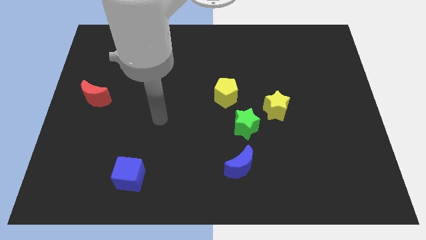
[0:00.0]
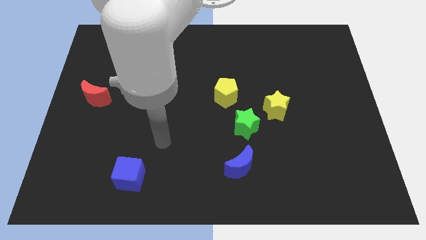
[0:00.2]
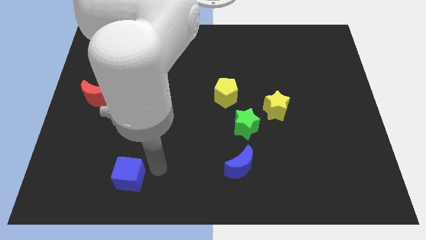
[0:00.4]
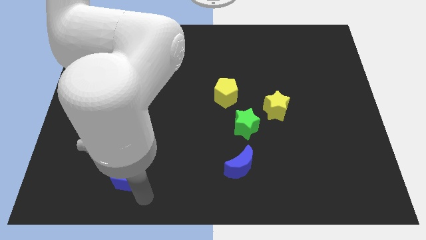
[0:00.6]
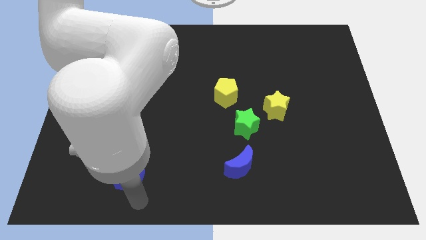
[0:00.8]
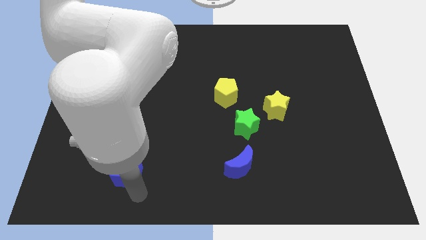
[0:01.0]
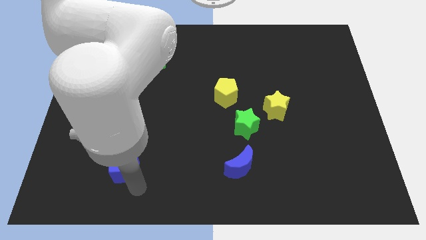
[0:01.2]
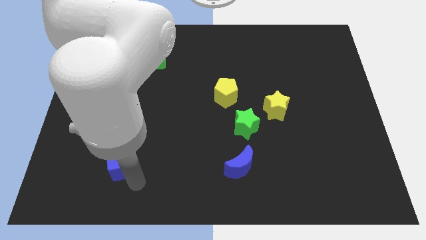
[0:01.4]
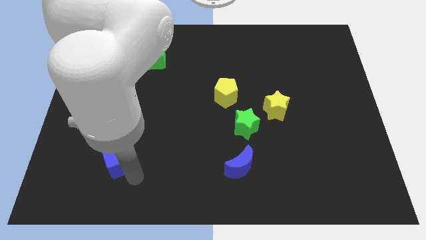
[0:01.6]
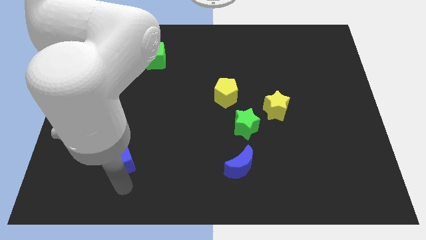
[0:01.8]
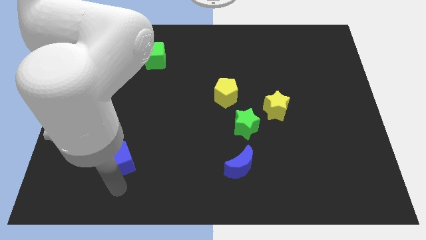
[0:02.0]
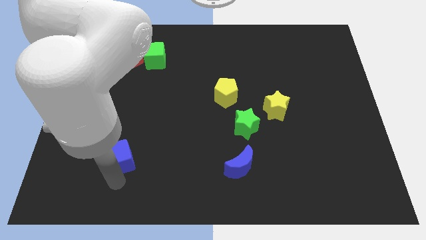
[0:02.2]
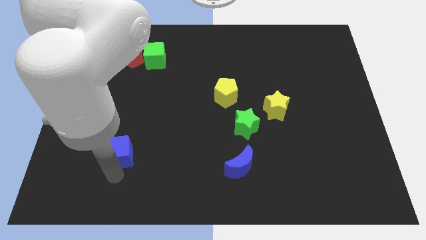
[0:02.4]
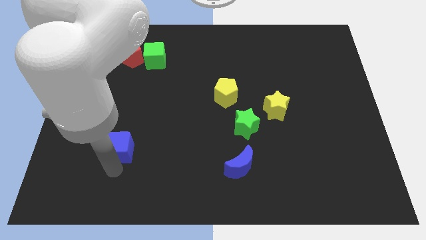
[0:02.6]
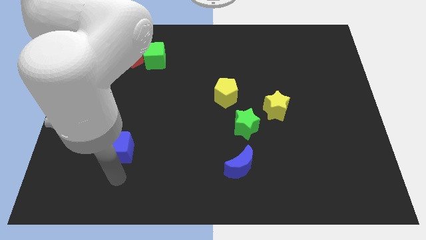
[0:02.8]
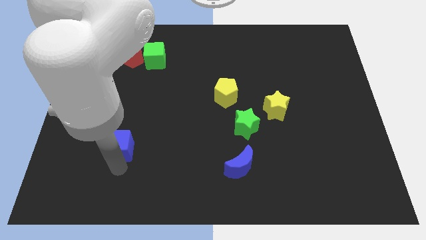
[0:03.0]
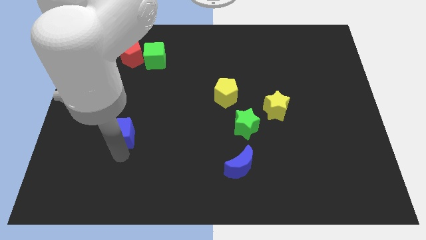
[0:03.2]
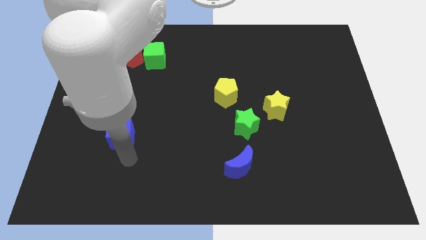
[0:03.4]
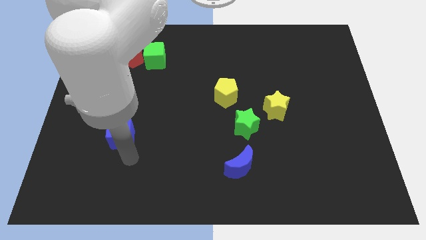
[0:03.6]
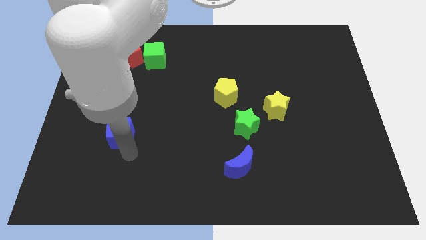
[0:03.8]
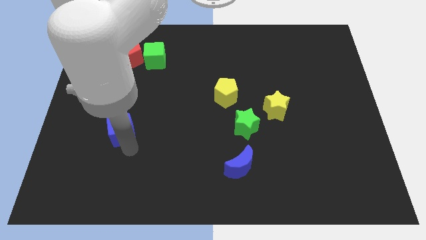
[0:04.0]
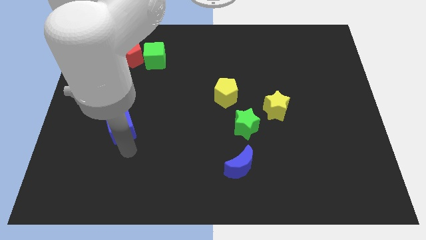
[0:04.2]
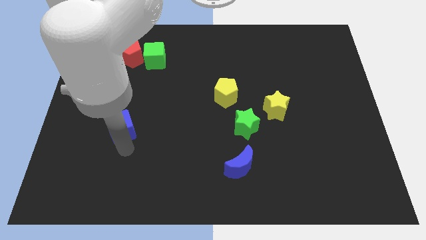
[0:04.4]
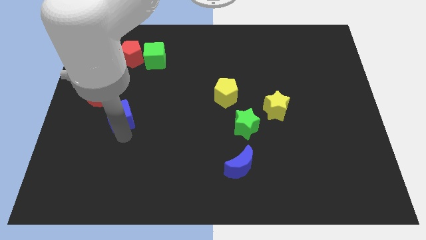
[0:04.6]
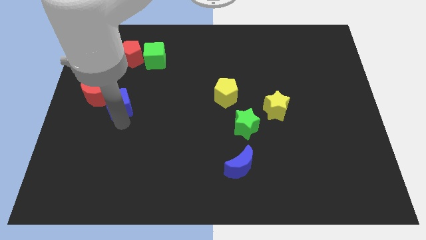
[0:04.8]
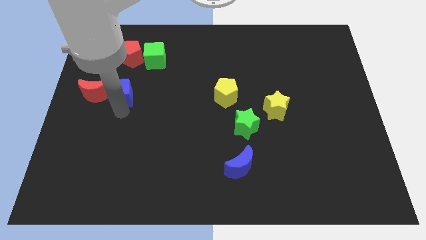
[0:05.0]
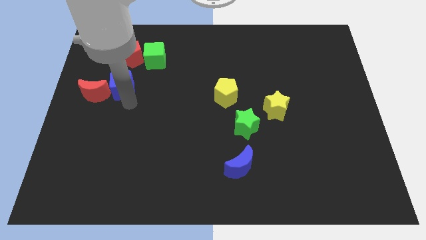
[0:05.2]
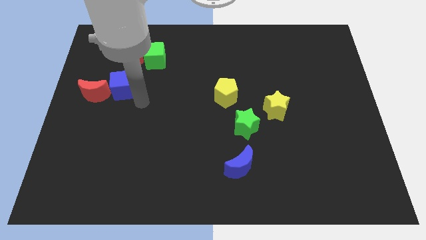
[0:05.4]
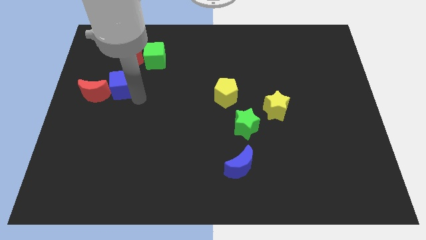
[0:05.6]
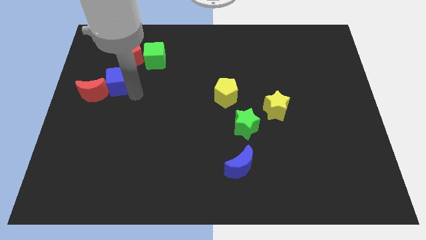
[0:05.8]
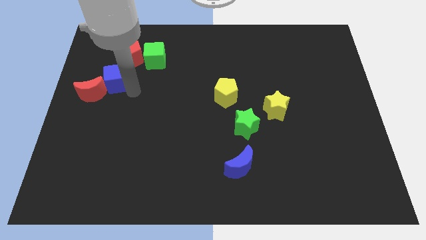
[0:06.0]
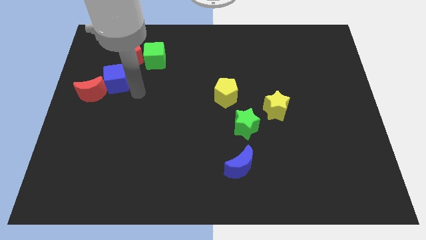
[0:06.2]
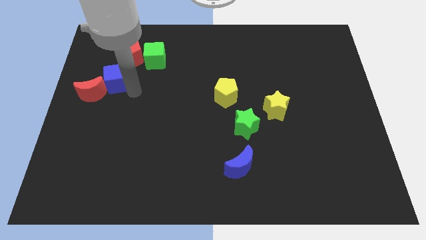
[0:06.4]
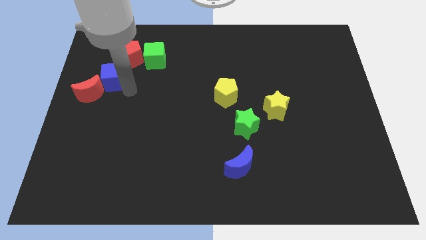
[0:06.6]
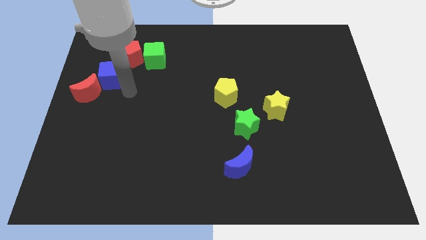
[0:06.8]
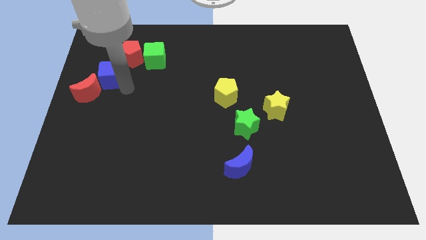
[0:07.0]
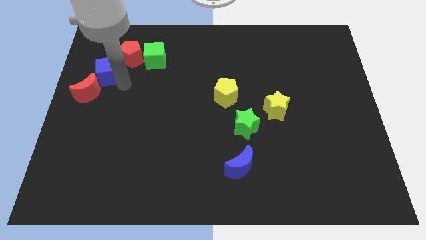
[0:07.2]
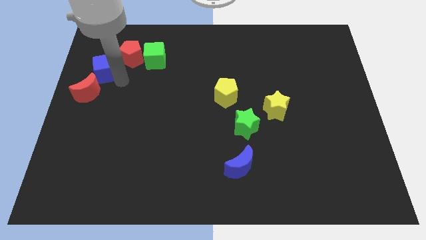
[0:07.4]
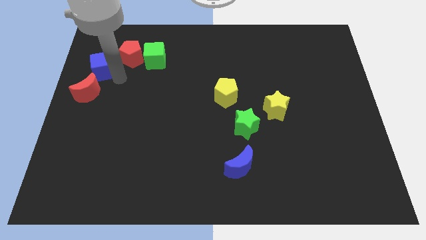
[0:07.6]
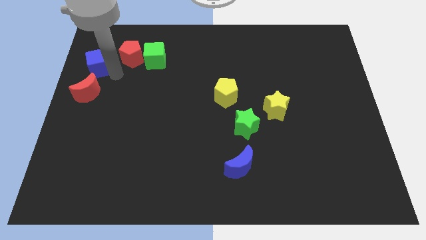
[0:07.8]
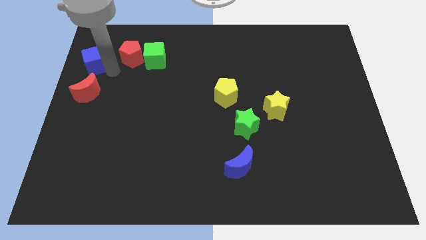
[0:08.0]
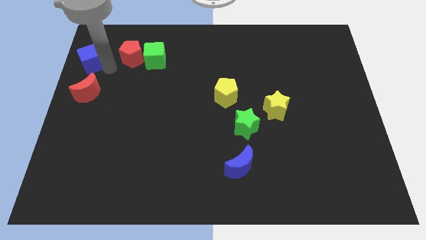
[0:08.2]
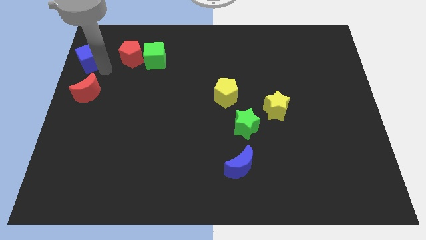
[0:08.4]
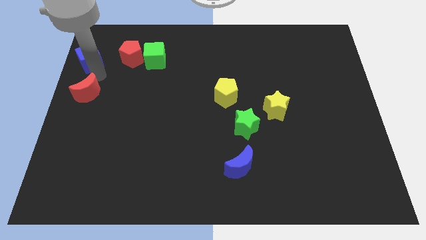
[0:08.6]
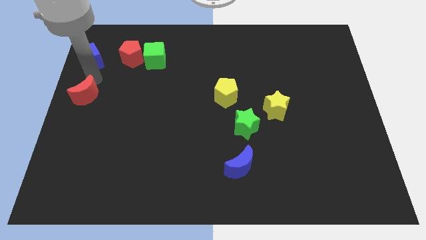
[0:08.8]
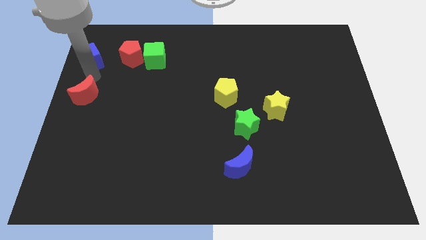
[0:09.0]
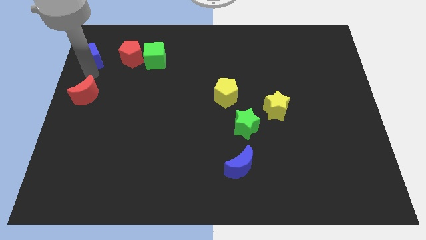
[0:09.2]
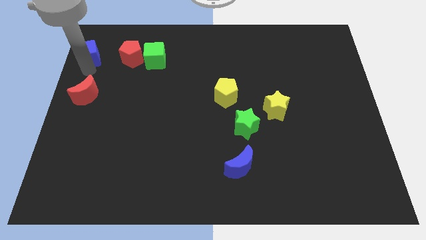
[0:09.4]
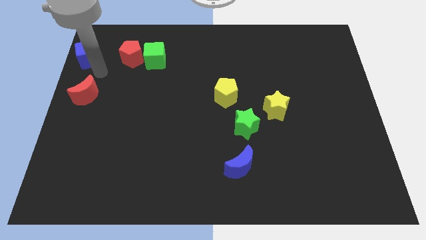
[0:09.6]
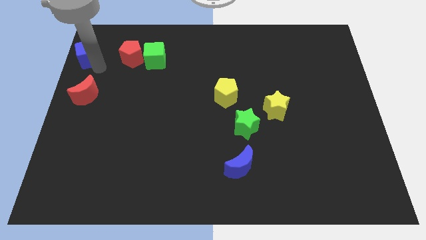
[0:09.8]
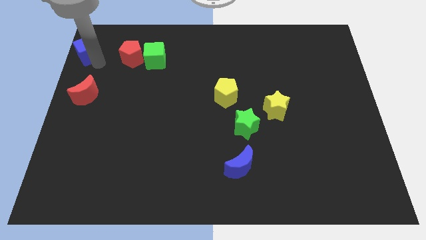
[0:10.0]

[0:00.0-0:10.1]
push the blue cube to the top left corner

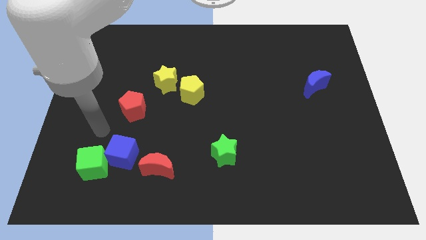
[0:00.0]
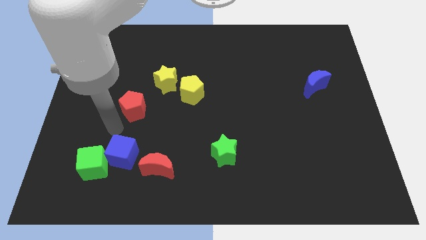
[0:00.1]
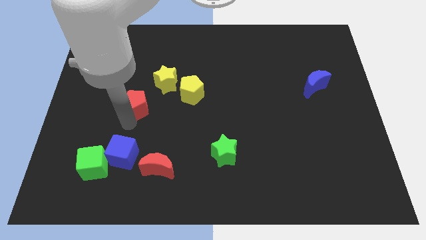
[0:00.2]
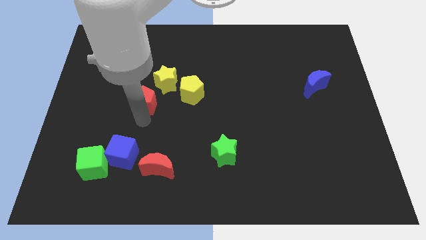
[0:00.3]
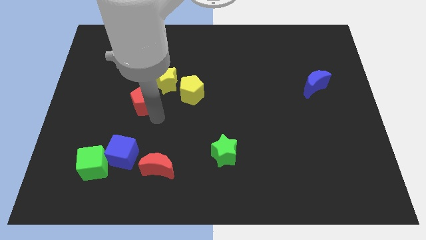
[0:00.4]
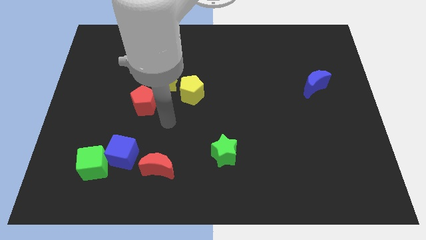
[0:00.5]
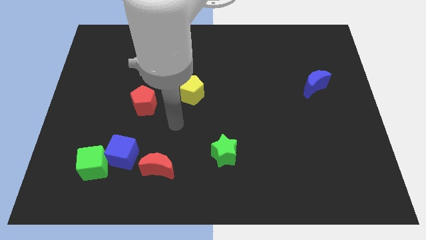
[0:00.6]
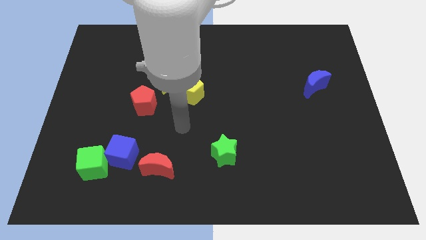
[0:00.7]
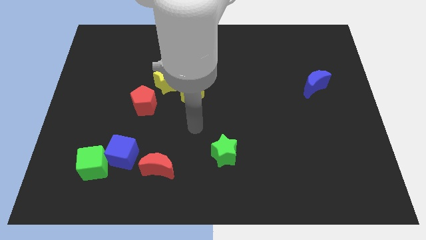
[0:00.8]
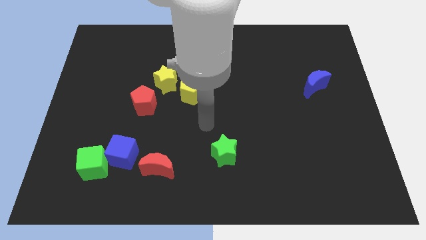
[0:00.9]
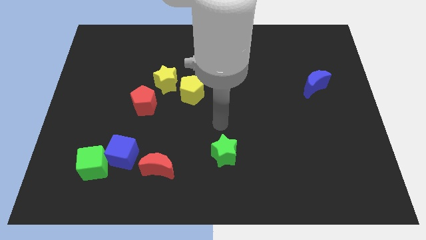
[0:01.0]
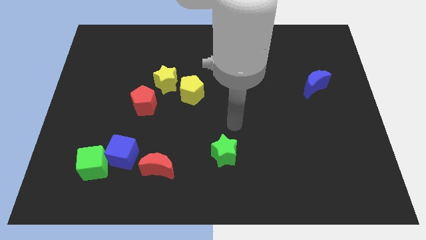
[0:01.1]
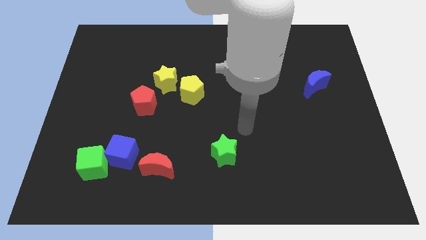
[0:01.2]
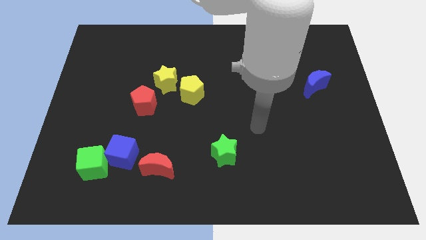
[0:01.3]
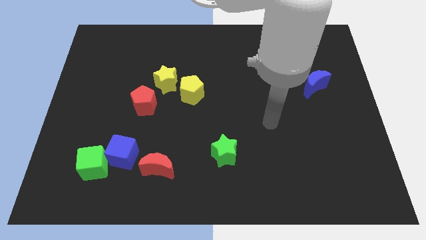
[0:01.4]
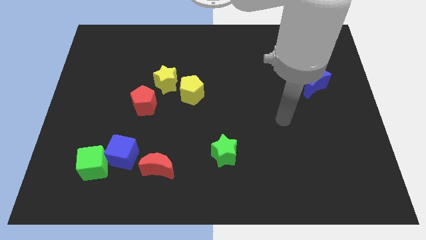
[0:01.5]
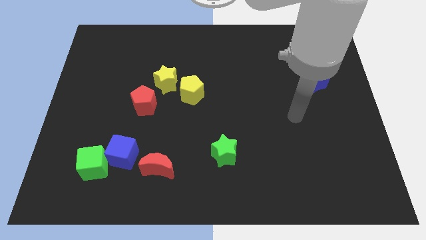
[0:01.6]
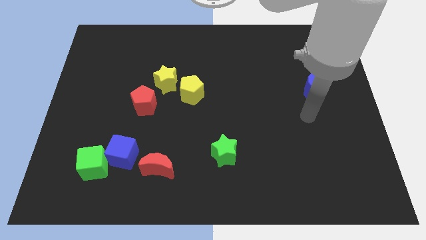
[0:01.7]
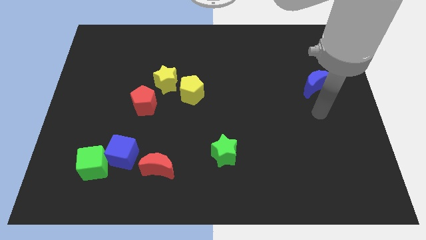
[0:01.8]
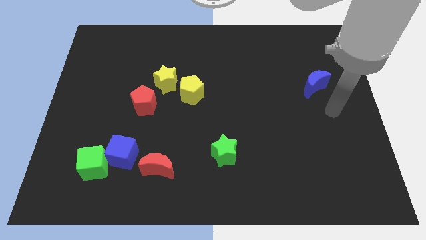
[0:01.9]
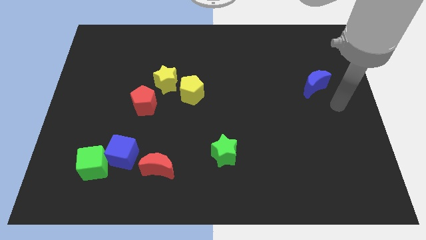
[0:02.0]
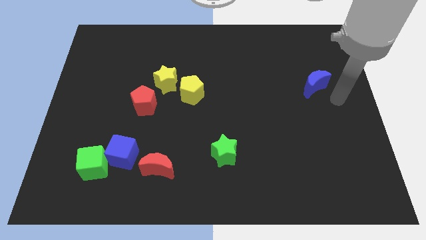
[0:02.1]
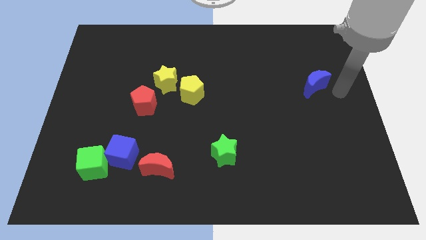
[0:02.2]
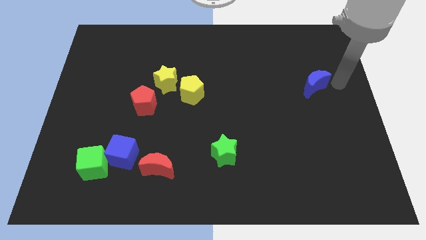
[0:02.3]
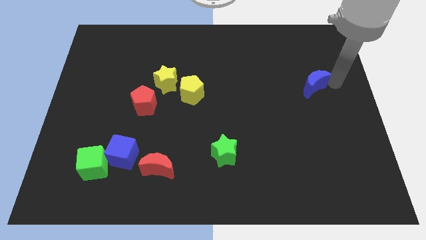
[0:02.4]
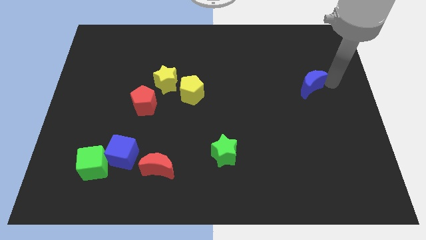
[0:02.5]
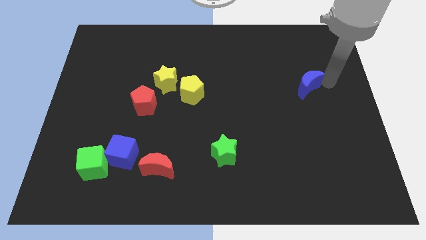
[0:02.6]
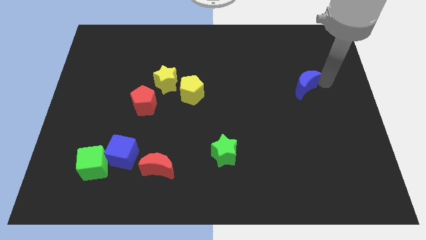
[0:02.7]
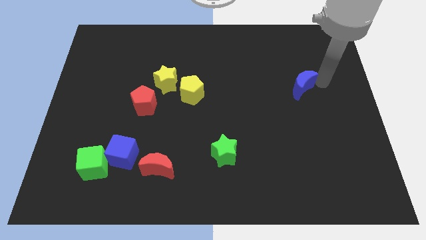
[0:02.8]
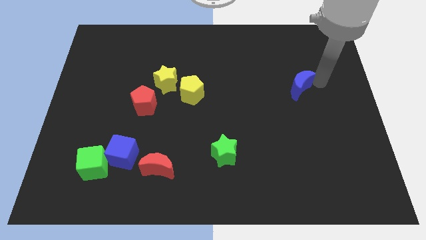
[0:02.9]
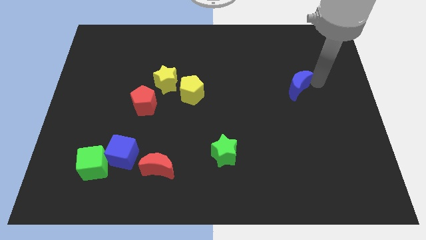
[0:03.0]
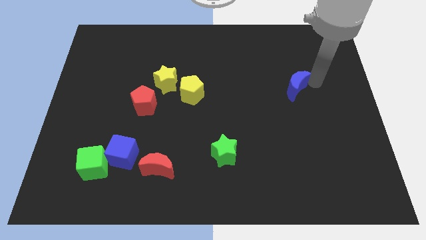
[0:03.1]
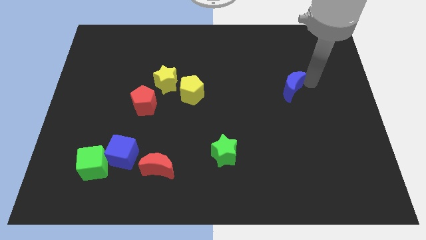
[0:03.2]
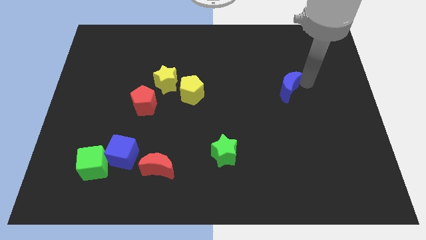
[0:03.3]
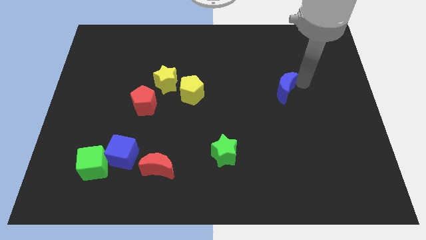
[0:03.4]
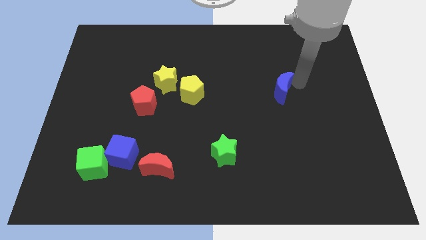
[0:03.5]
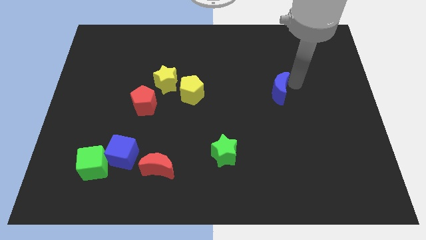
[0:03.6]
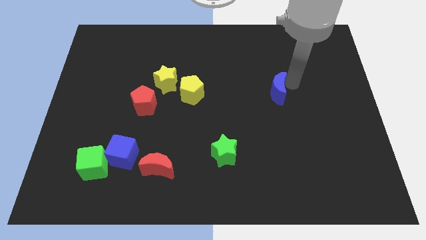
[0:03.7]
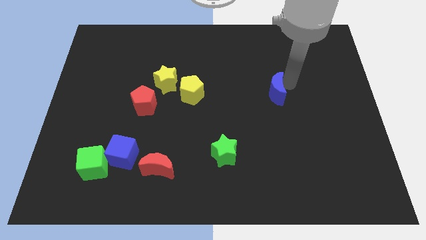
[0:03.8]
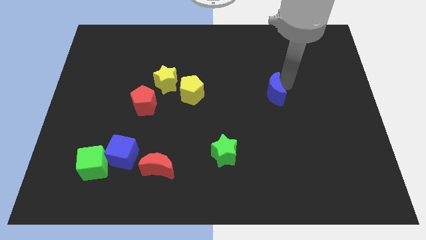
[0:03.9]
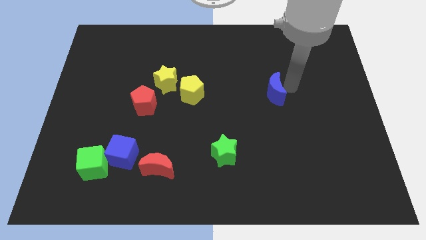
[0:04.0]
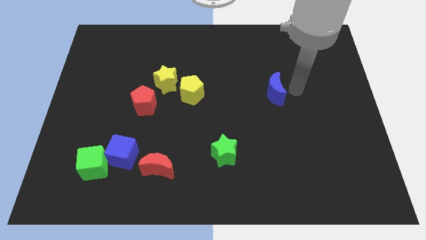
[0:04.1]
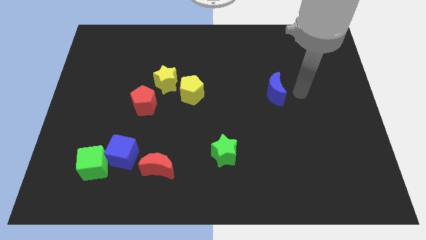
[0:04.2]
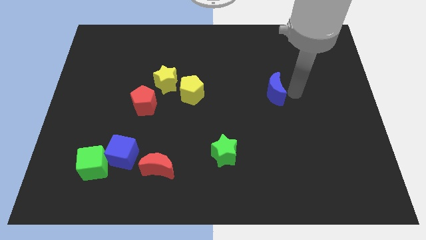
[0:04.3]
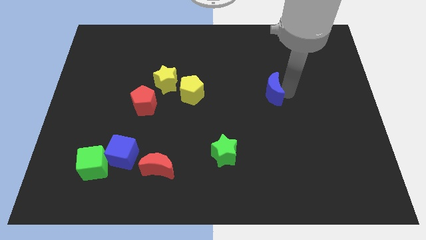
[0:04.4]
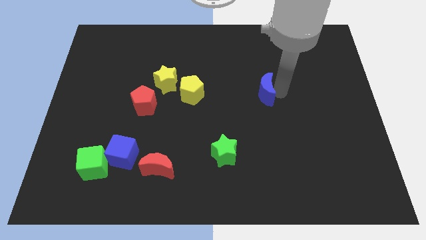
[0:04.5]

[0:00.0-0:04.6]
put the blue moon to the middle of the board
